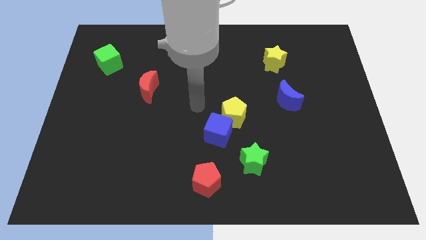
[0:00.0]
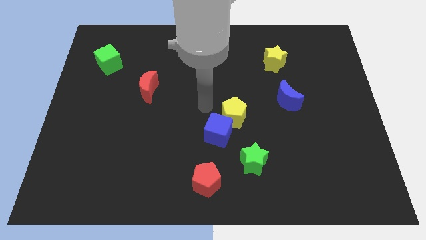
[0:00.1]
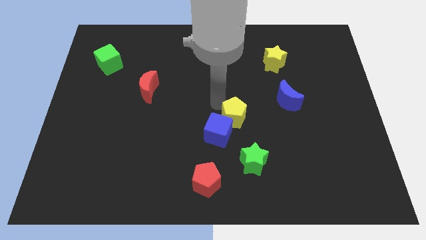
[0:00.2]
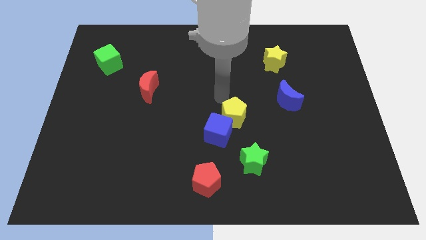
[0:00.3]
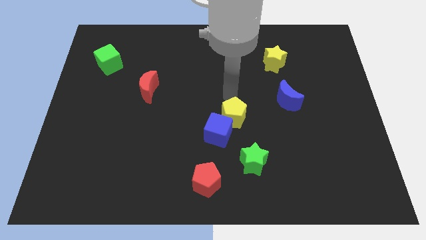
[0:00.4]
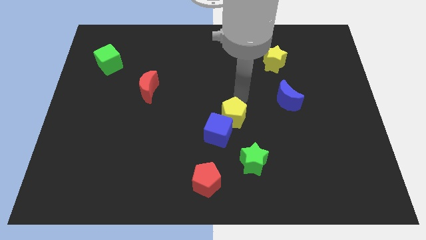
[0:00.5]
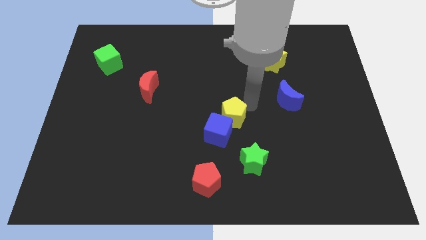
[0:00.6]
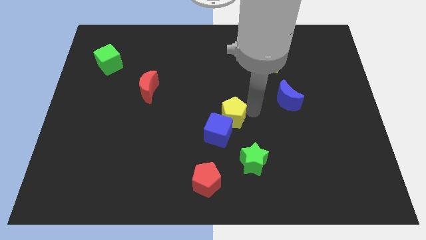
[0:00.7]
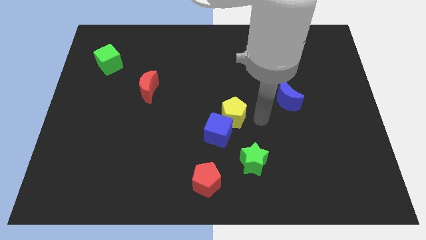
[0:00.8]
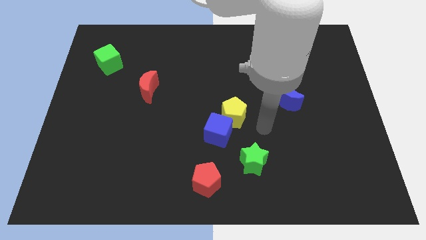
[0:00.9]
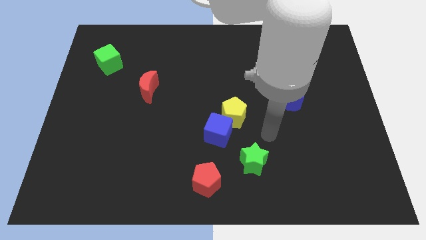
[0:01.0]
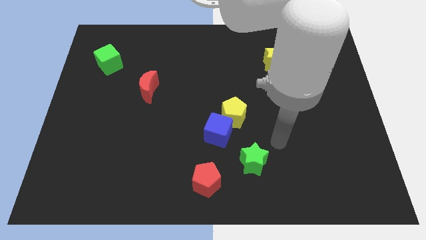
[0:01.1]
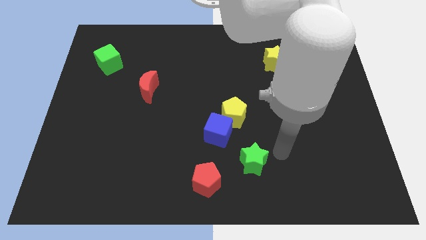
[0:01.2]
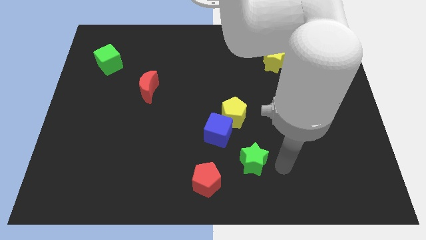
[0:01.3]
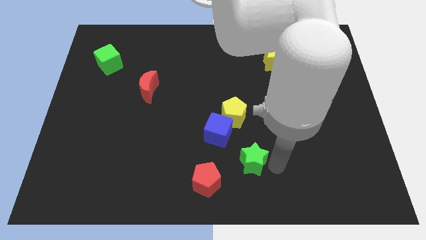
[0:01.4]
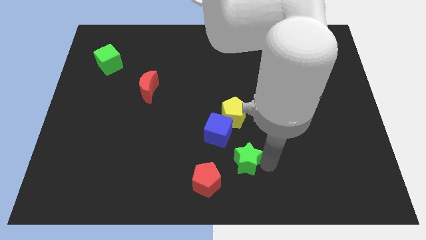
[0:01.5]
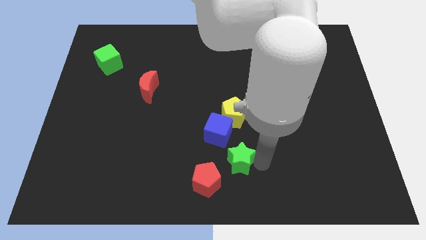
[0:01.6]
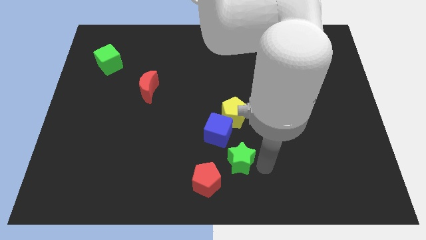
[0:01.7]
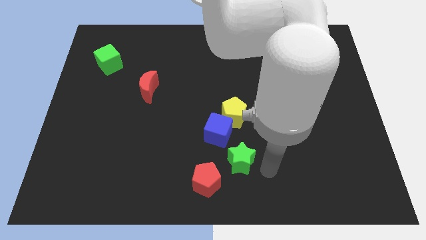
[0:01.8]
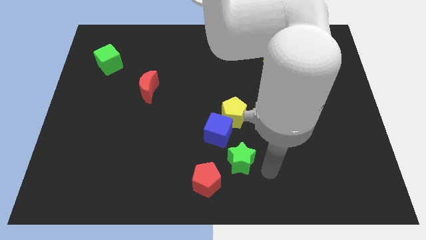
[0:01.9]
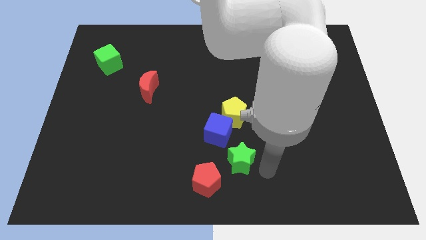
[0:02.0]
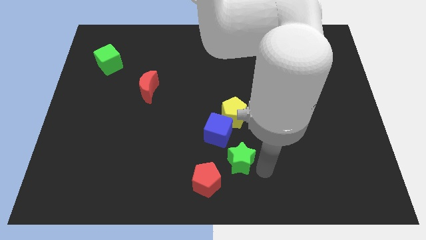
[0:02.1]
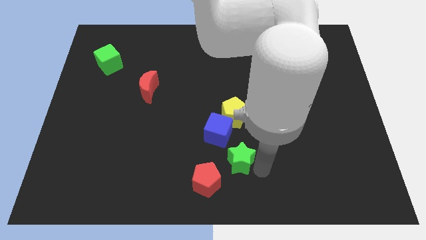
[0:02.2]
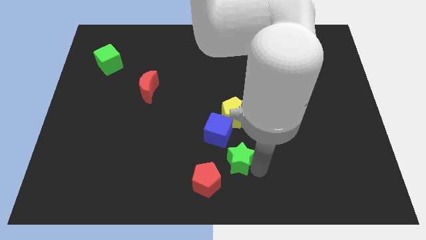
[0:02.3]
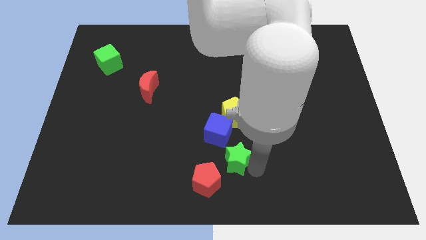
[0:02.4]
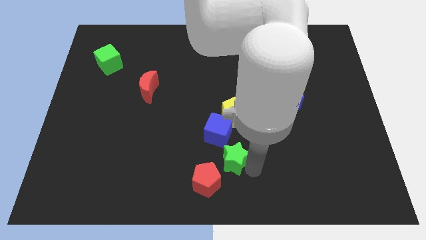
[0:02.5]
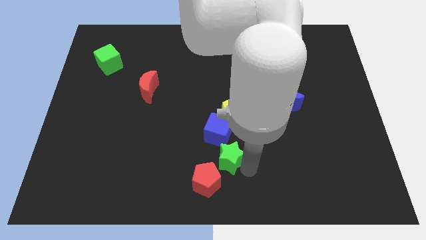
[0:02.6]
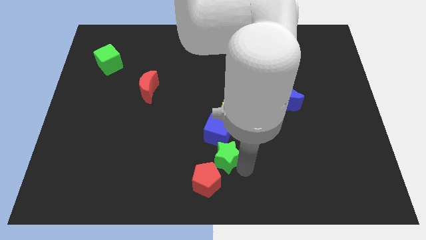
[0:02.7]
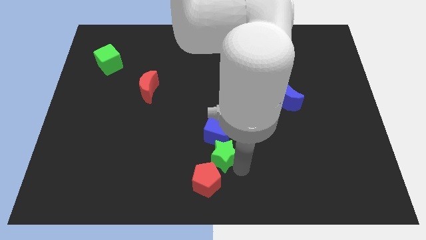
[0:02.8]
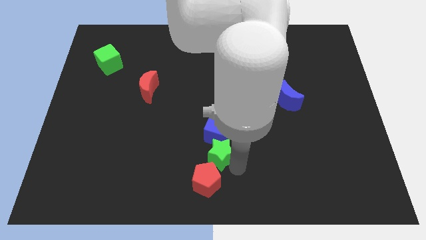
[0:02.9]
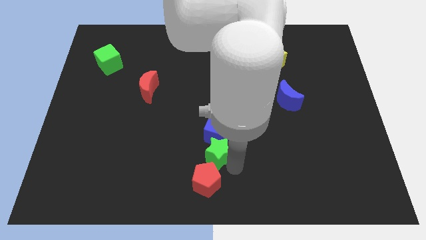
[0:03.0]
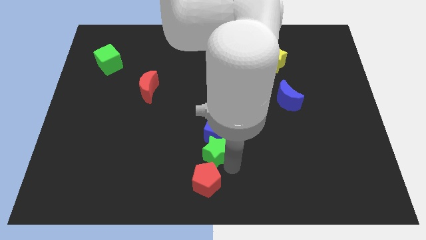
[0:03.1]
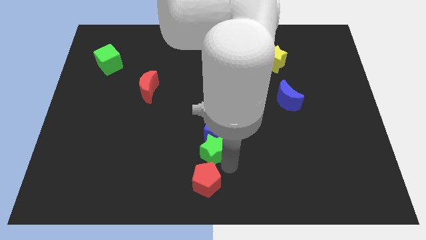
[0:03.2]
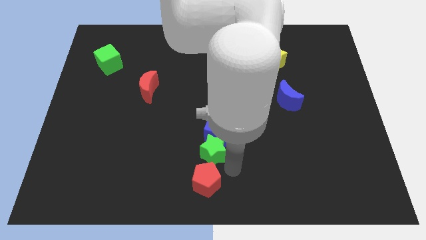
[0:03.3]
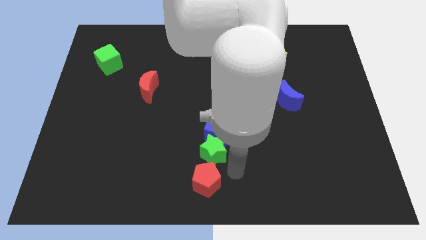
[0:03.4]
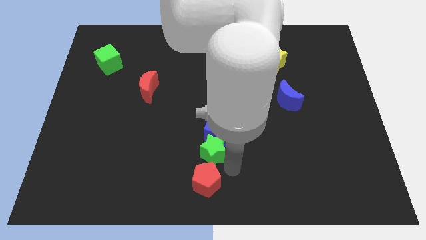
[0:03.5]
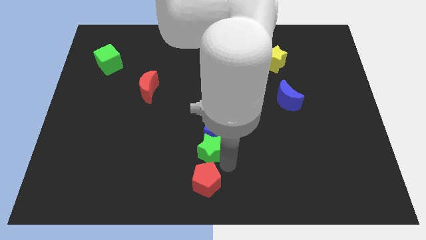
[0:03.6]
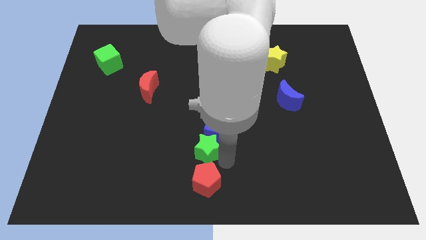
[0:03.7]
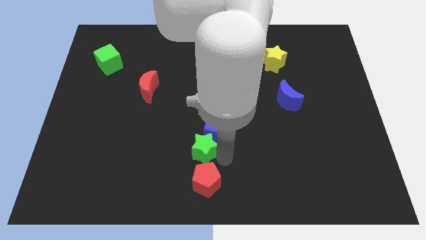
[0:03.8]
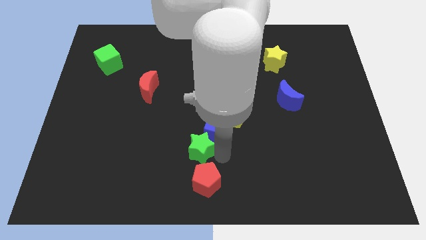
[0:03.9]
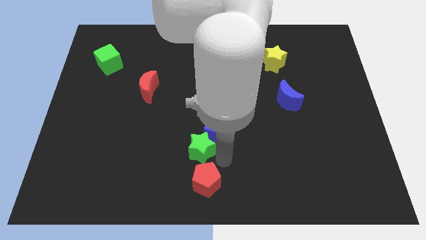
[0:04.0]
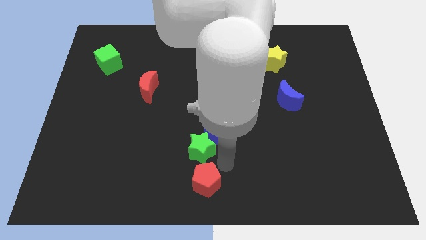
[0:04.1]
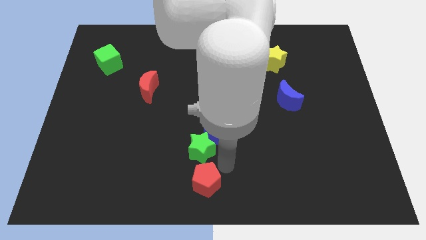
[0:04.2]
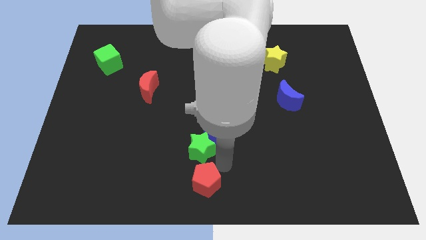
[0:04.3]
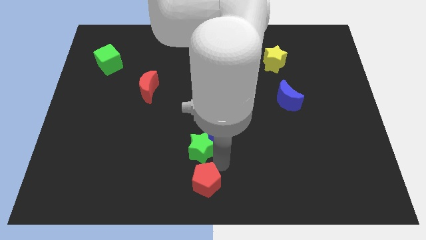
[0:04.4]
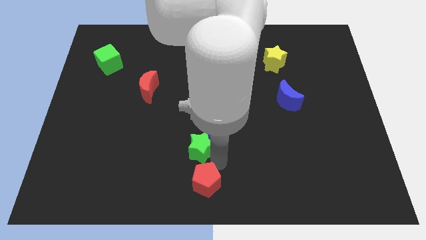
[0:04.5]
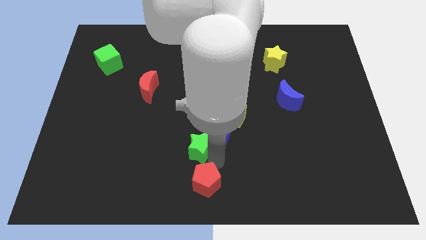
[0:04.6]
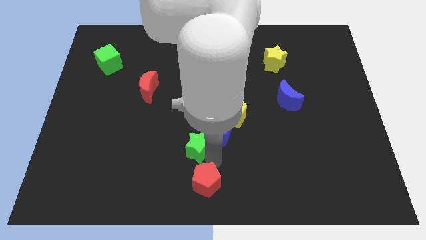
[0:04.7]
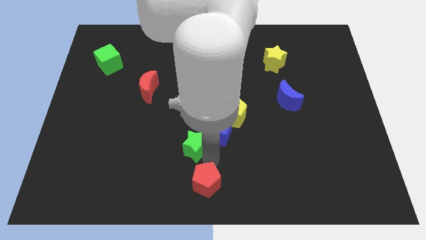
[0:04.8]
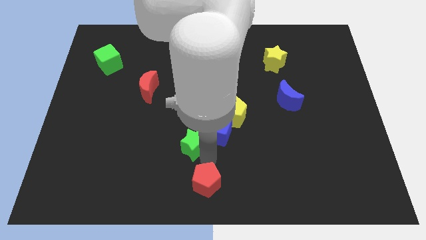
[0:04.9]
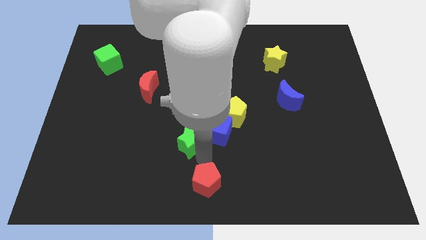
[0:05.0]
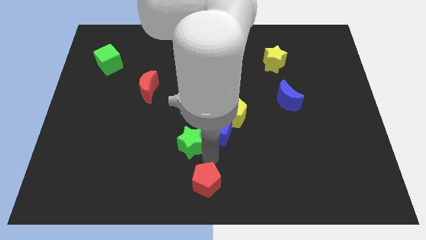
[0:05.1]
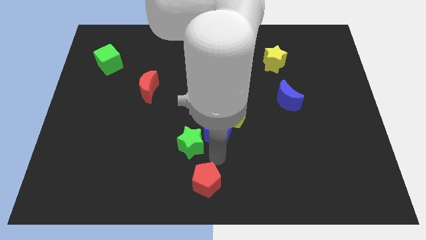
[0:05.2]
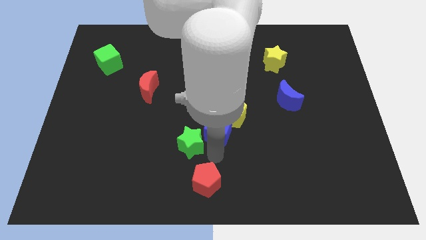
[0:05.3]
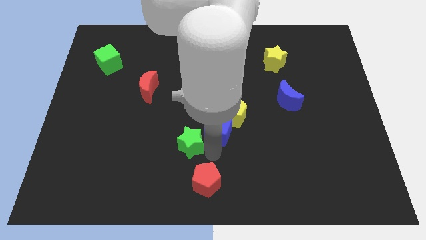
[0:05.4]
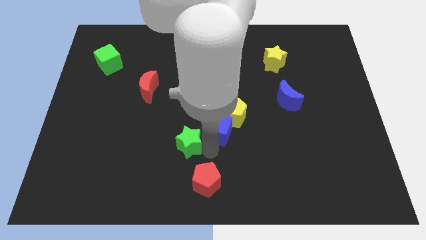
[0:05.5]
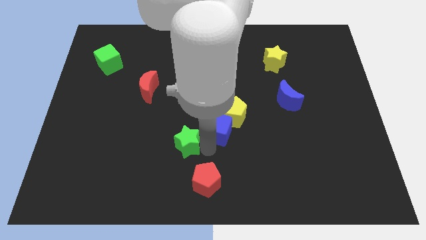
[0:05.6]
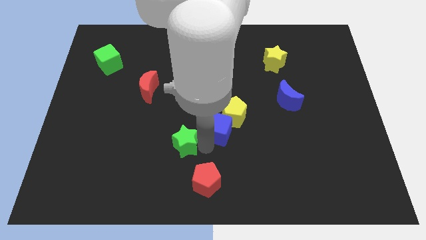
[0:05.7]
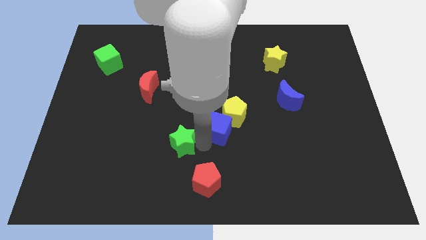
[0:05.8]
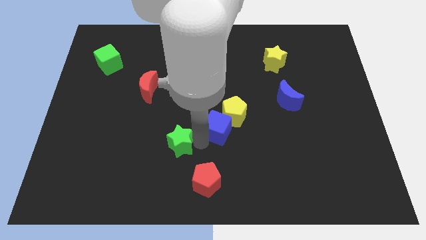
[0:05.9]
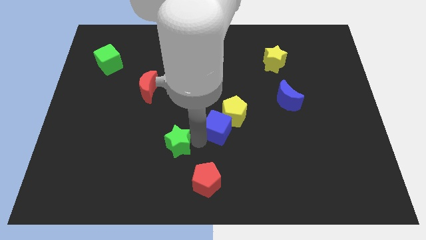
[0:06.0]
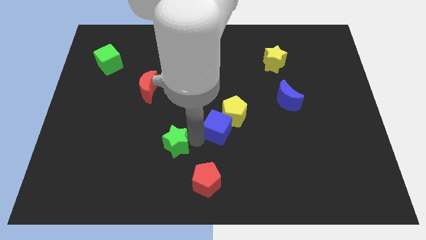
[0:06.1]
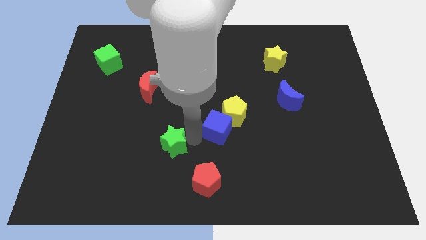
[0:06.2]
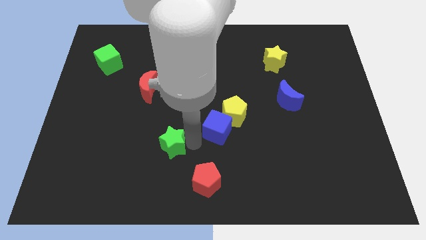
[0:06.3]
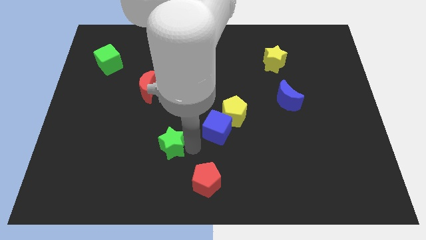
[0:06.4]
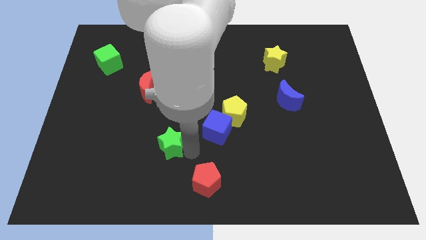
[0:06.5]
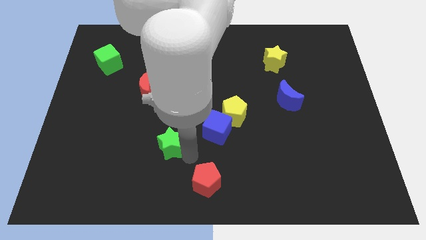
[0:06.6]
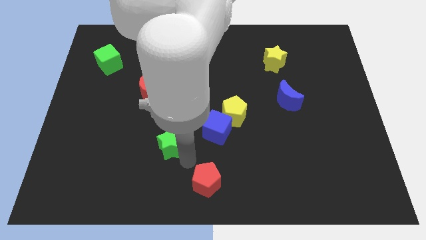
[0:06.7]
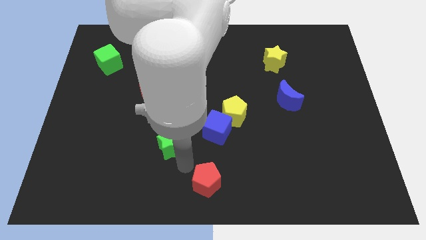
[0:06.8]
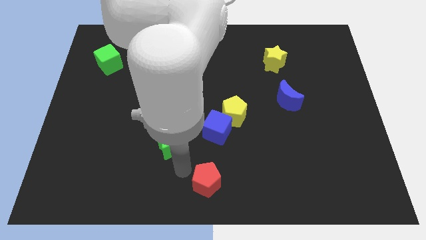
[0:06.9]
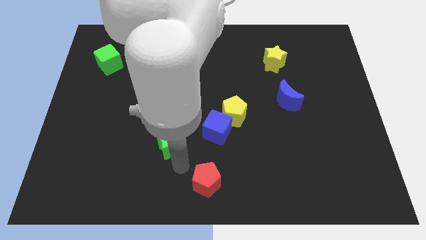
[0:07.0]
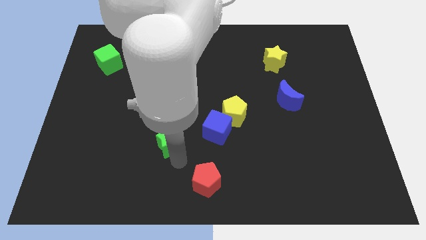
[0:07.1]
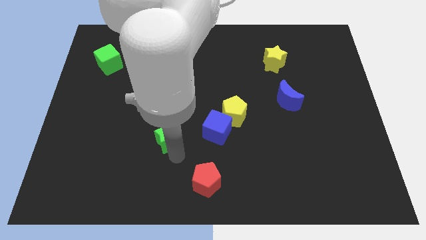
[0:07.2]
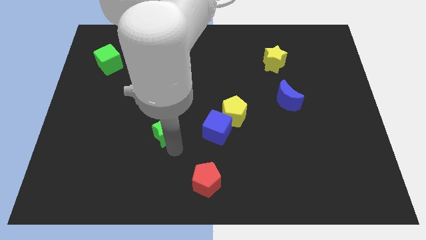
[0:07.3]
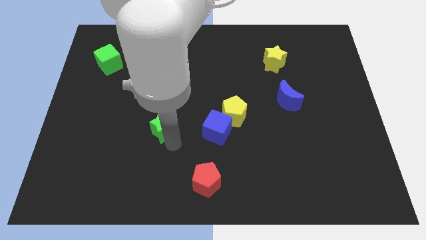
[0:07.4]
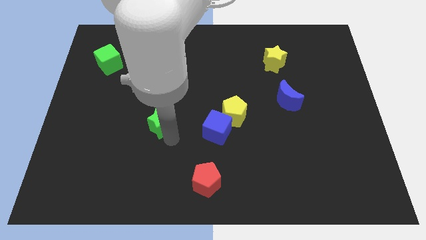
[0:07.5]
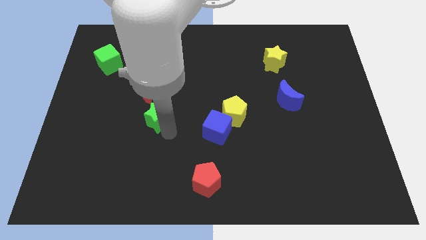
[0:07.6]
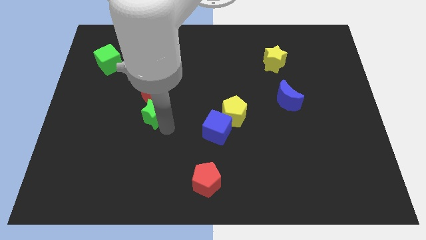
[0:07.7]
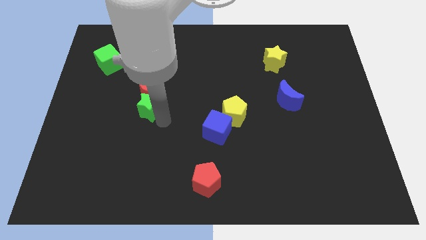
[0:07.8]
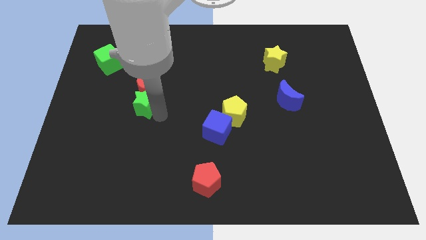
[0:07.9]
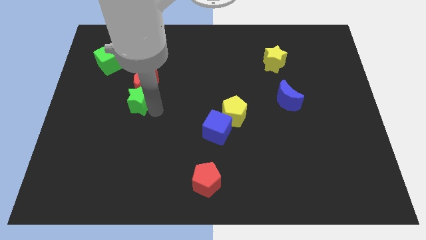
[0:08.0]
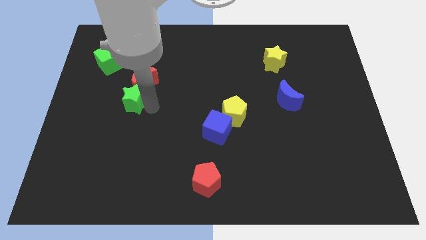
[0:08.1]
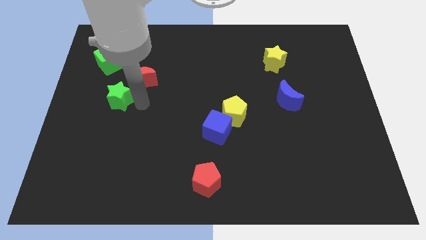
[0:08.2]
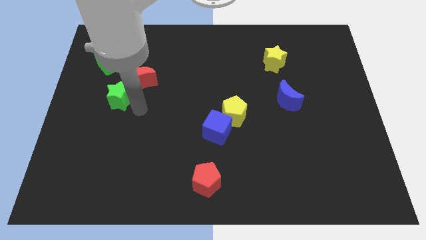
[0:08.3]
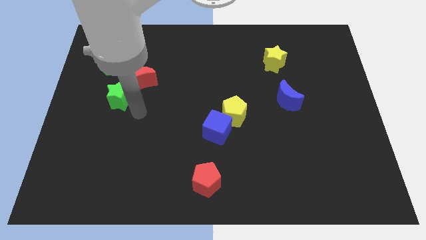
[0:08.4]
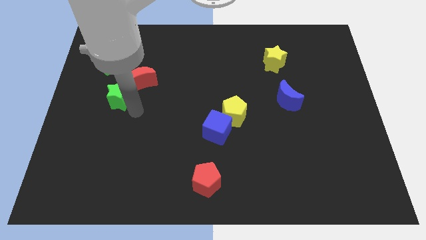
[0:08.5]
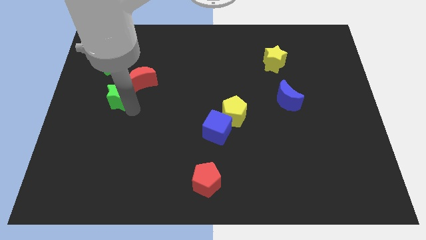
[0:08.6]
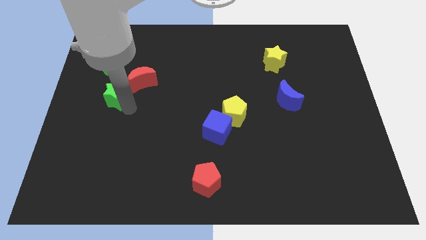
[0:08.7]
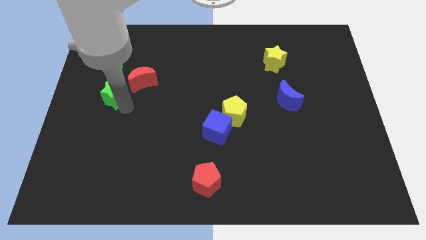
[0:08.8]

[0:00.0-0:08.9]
push the green star left of the red moon
